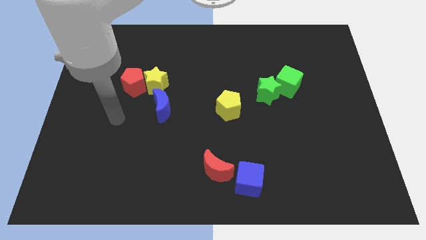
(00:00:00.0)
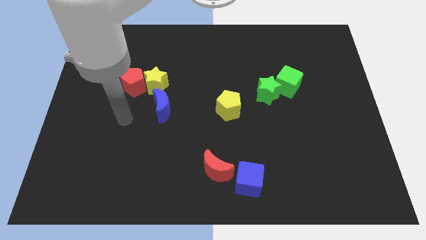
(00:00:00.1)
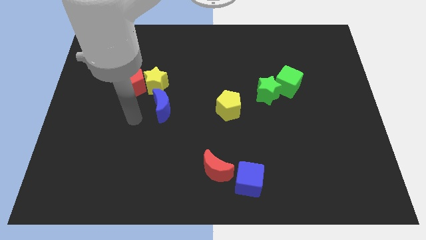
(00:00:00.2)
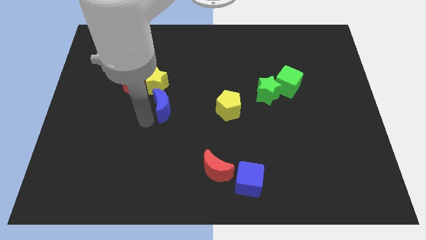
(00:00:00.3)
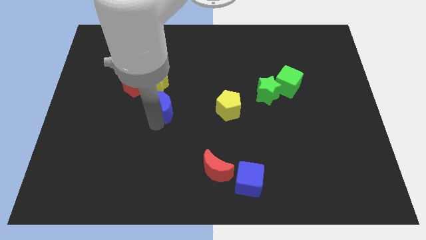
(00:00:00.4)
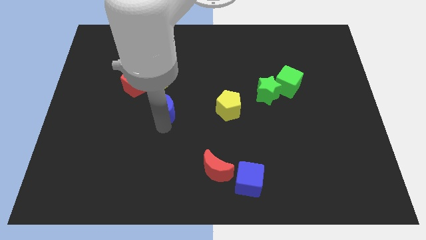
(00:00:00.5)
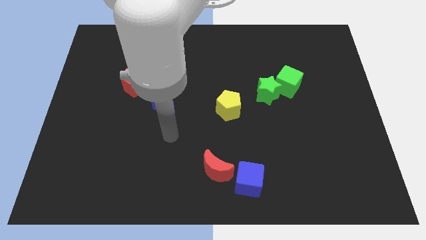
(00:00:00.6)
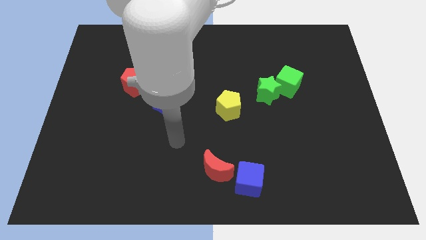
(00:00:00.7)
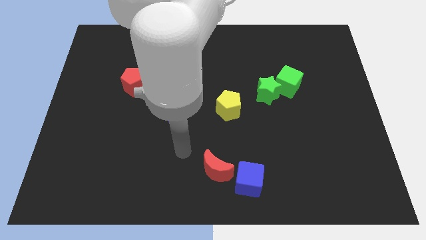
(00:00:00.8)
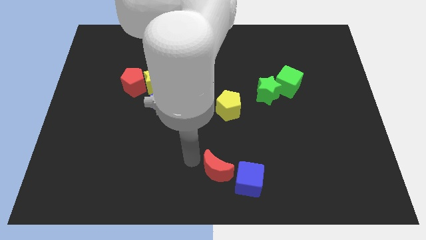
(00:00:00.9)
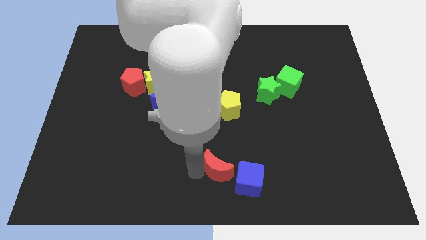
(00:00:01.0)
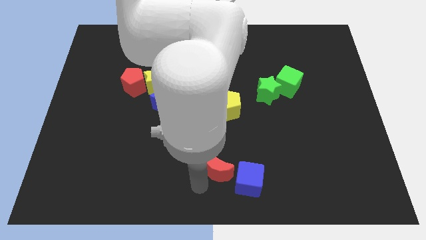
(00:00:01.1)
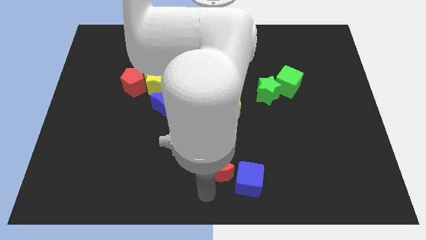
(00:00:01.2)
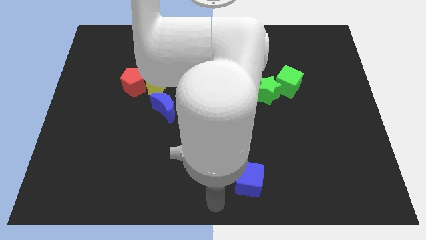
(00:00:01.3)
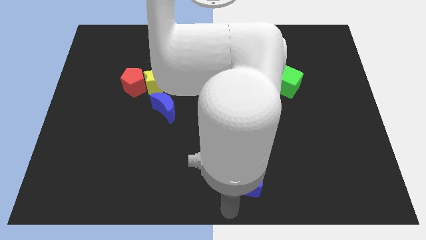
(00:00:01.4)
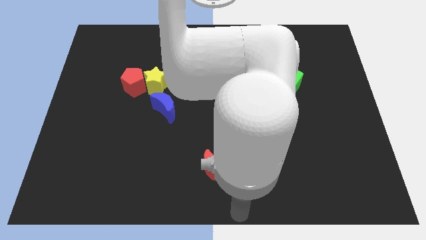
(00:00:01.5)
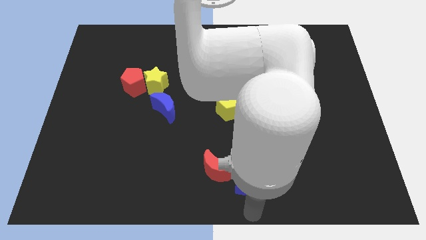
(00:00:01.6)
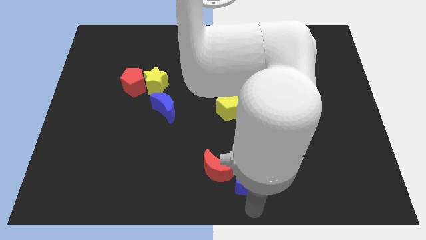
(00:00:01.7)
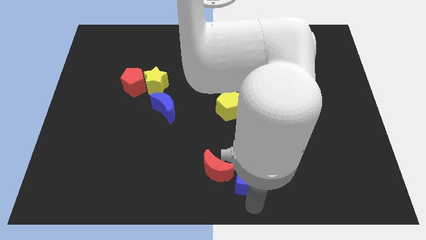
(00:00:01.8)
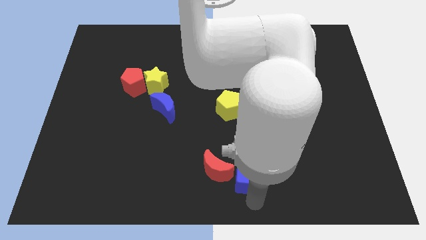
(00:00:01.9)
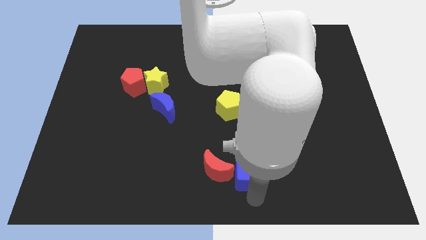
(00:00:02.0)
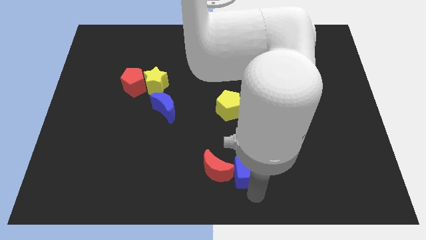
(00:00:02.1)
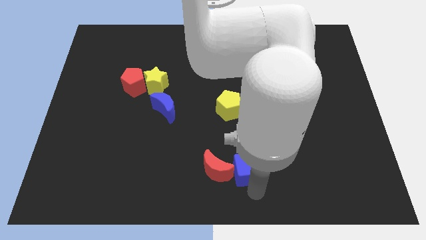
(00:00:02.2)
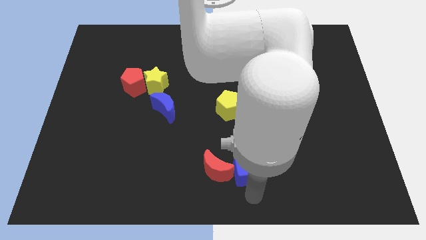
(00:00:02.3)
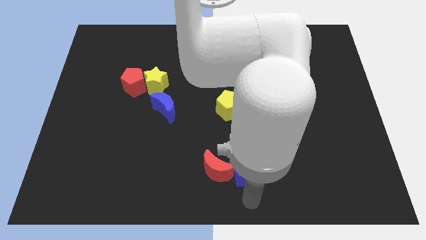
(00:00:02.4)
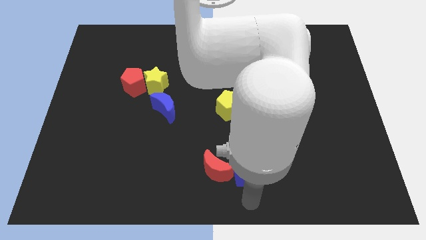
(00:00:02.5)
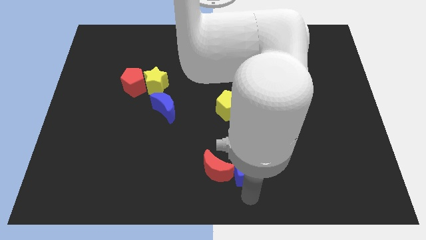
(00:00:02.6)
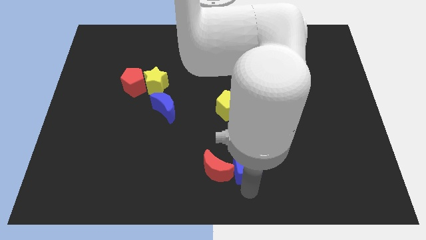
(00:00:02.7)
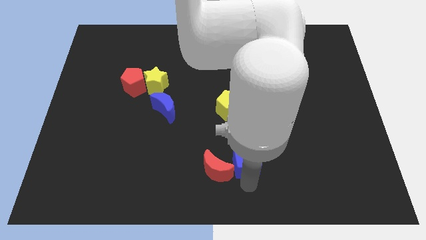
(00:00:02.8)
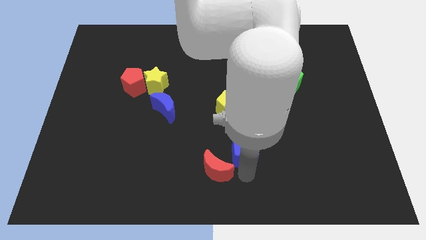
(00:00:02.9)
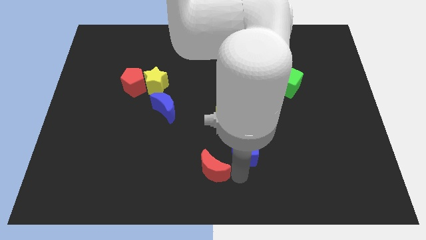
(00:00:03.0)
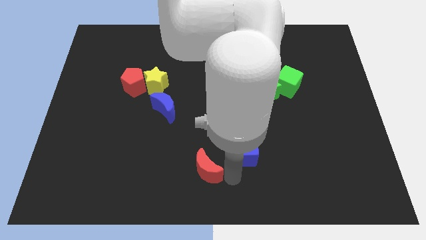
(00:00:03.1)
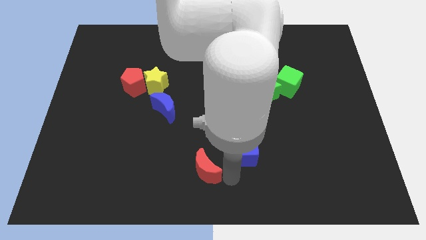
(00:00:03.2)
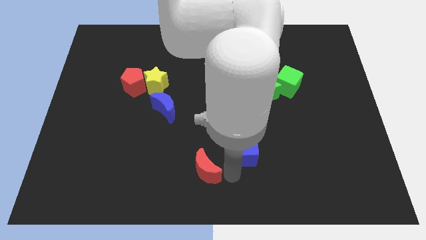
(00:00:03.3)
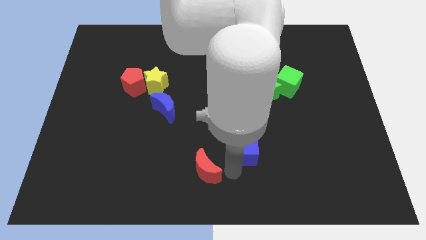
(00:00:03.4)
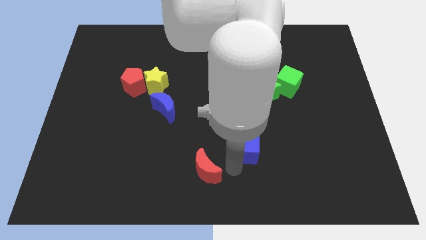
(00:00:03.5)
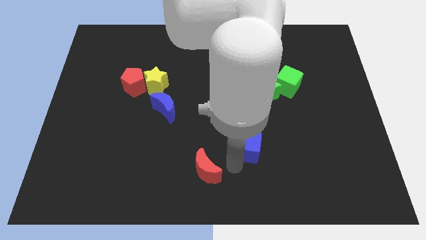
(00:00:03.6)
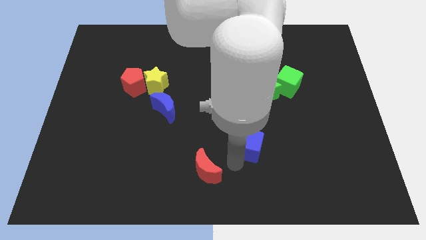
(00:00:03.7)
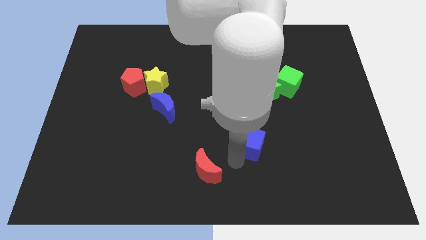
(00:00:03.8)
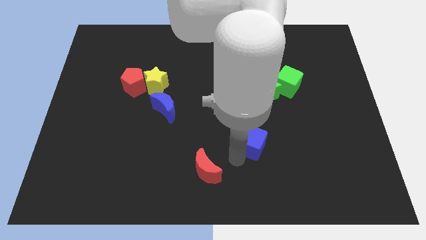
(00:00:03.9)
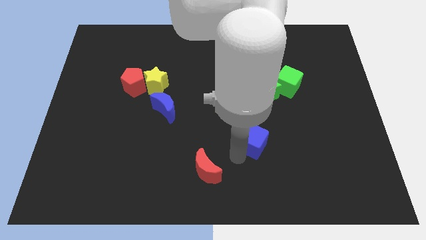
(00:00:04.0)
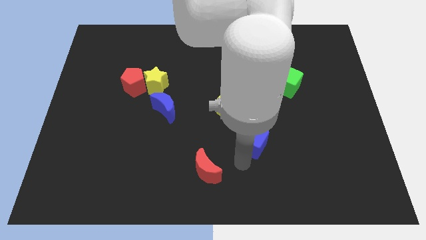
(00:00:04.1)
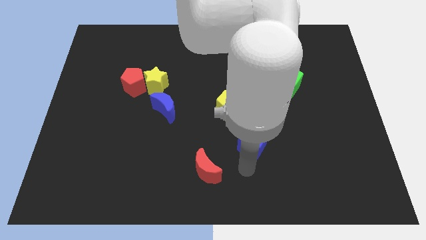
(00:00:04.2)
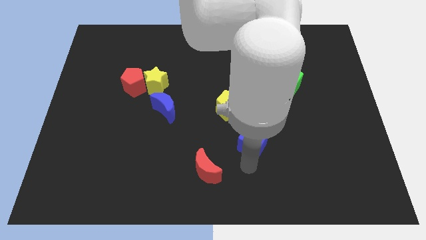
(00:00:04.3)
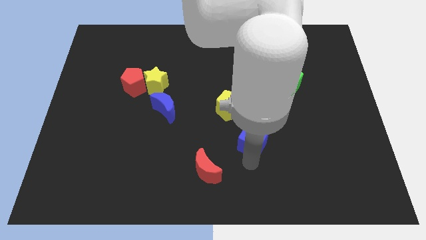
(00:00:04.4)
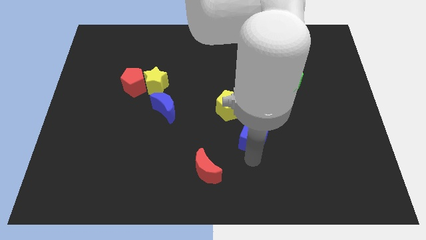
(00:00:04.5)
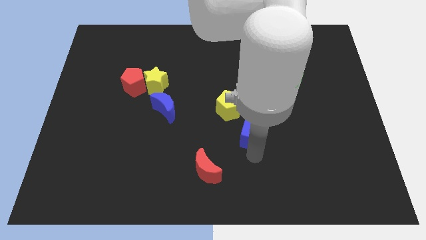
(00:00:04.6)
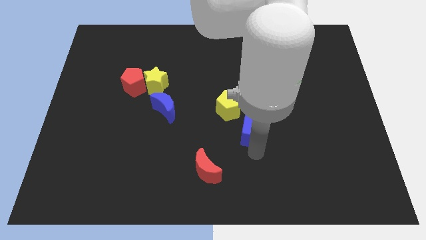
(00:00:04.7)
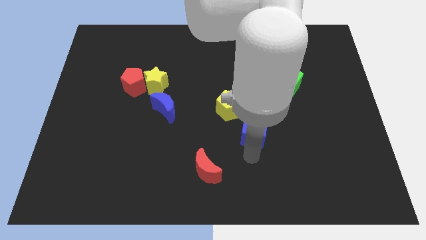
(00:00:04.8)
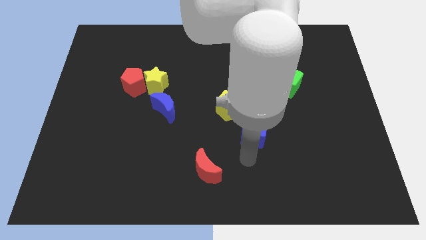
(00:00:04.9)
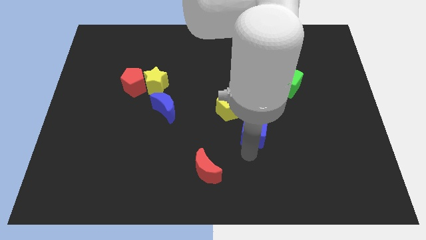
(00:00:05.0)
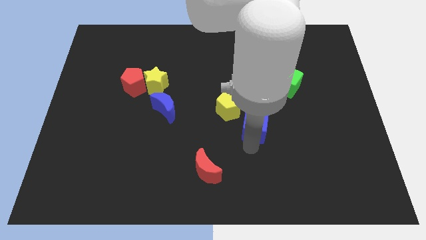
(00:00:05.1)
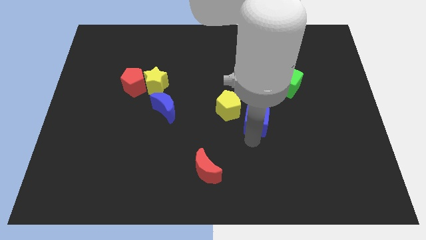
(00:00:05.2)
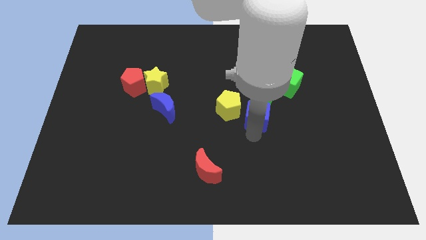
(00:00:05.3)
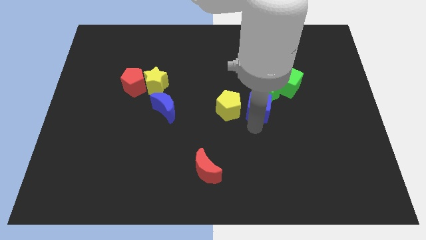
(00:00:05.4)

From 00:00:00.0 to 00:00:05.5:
put the blue cube close to the green star

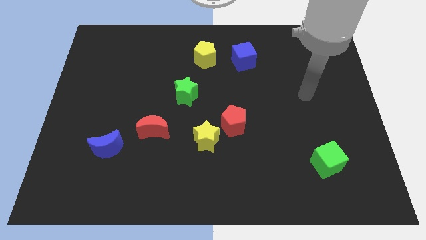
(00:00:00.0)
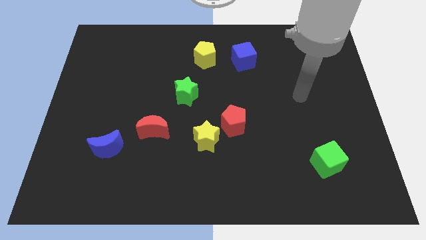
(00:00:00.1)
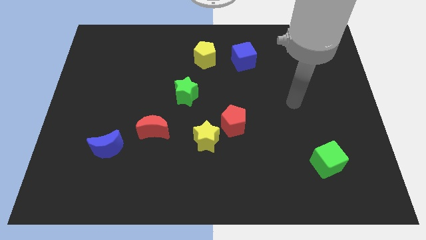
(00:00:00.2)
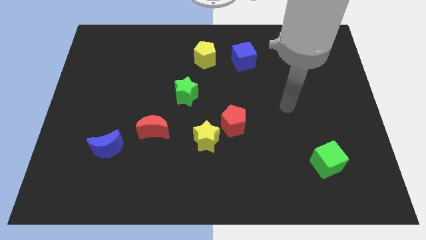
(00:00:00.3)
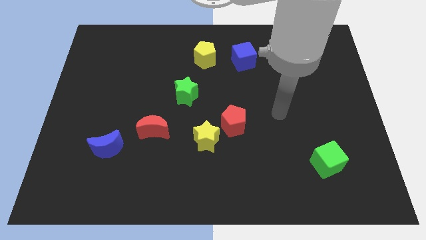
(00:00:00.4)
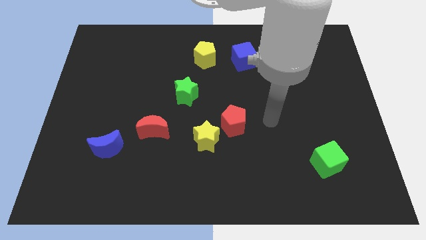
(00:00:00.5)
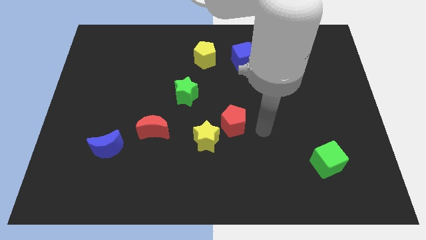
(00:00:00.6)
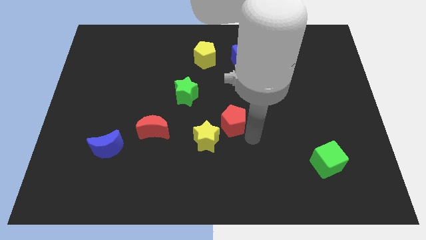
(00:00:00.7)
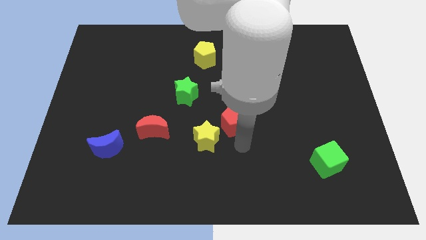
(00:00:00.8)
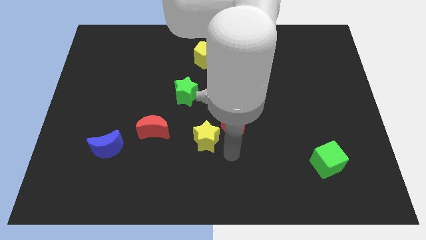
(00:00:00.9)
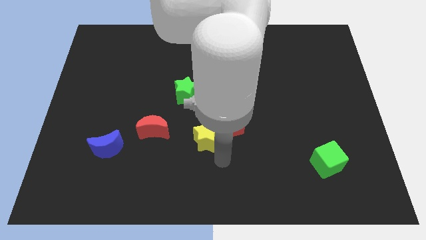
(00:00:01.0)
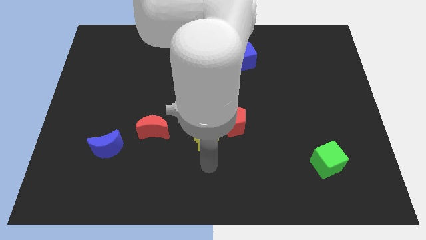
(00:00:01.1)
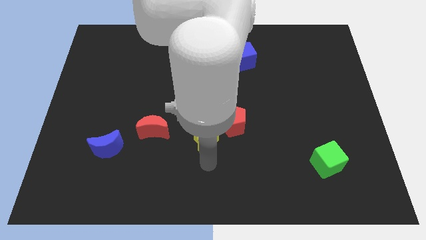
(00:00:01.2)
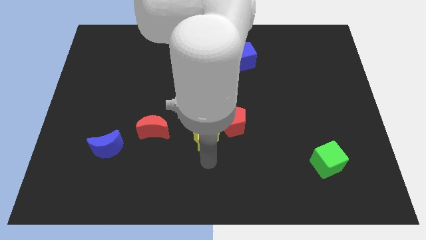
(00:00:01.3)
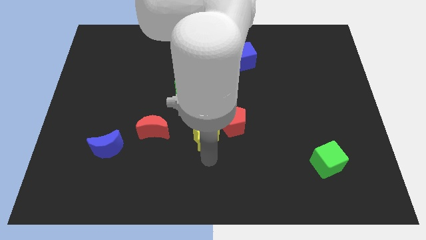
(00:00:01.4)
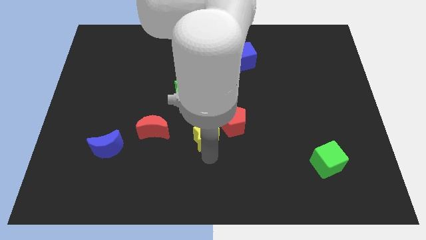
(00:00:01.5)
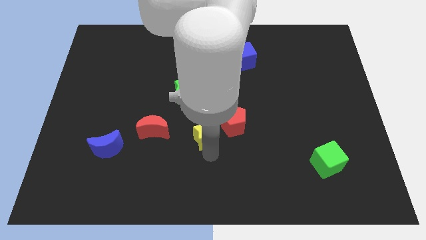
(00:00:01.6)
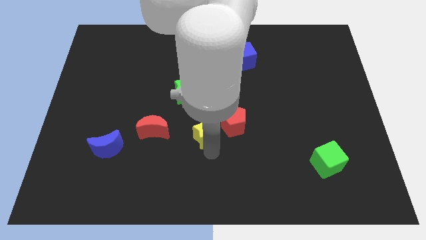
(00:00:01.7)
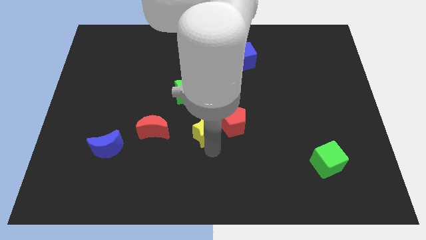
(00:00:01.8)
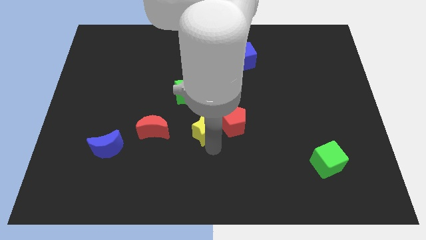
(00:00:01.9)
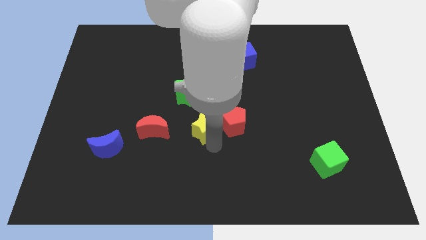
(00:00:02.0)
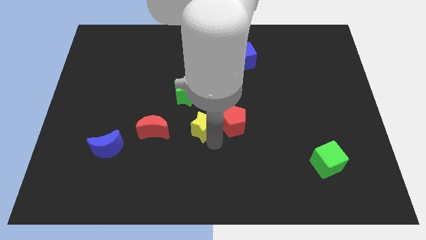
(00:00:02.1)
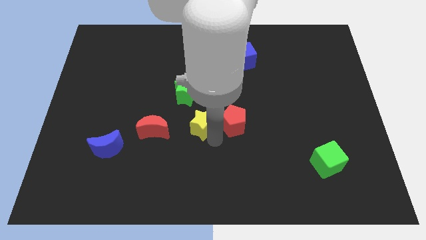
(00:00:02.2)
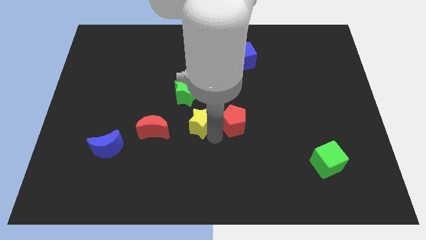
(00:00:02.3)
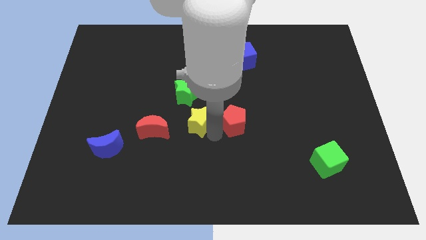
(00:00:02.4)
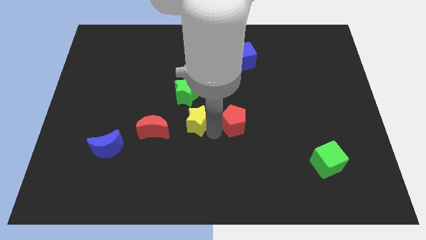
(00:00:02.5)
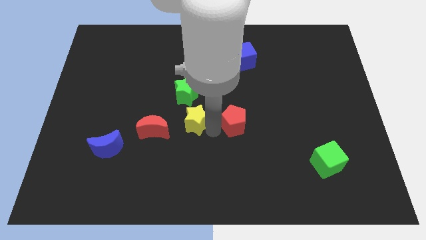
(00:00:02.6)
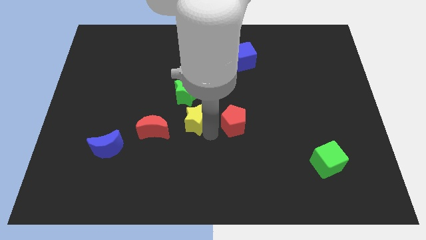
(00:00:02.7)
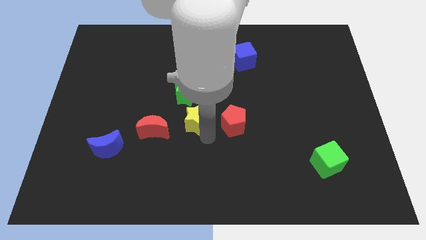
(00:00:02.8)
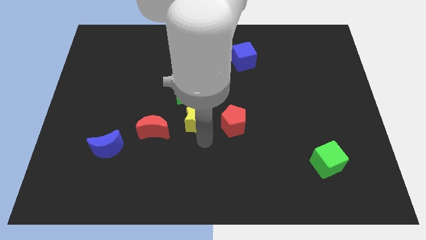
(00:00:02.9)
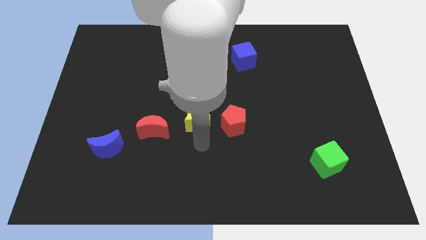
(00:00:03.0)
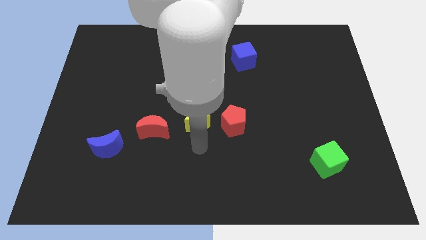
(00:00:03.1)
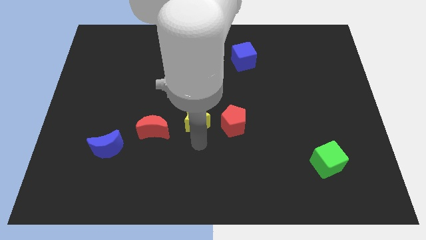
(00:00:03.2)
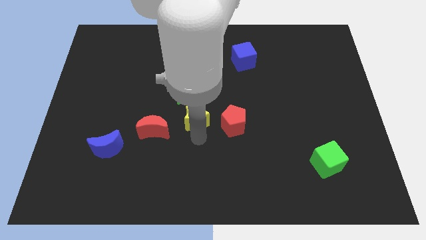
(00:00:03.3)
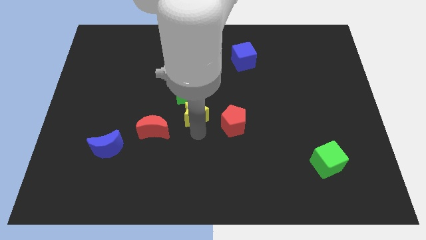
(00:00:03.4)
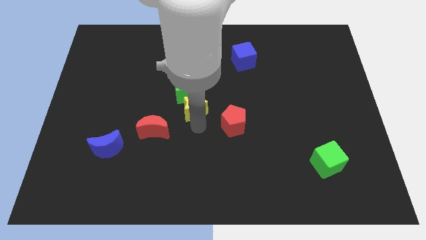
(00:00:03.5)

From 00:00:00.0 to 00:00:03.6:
push the yellow star next to the green star
